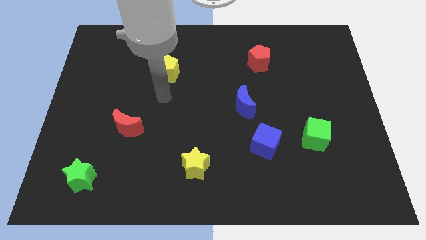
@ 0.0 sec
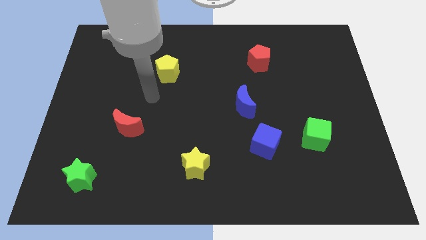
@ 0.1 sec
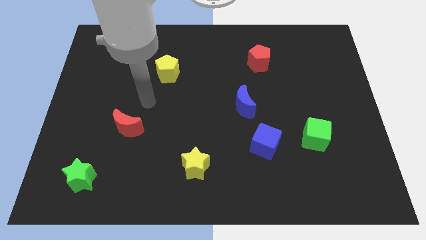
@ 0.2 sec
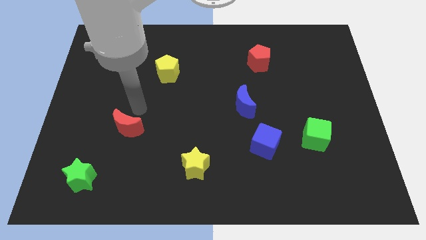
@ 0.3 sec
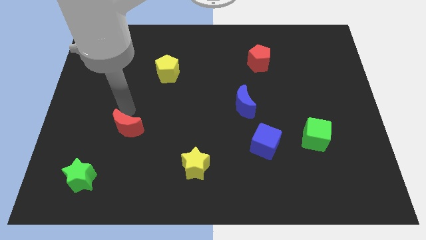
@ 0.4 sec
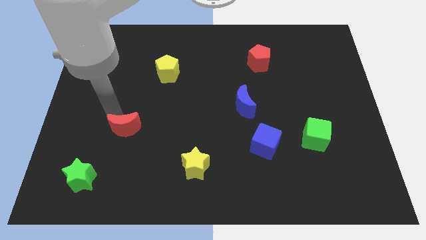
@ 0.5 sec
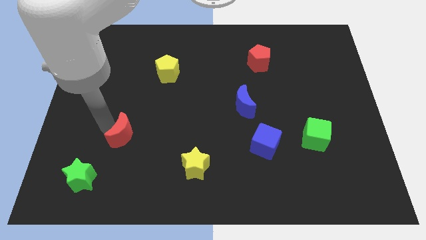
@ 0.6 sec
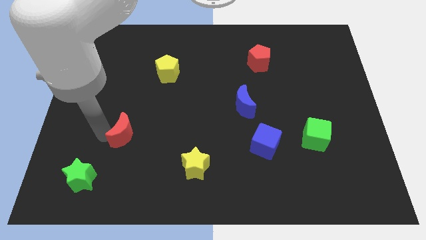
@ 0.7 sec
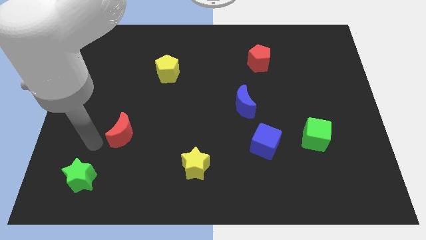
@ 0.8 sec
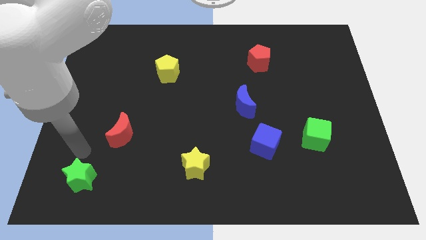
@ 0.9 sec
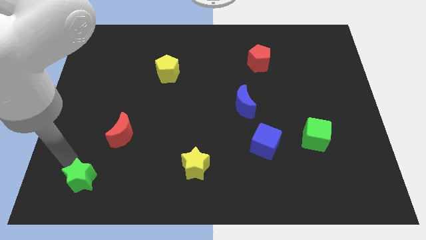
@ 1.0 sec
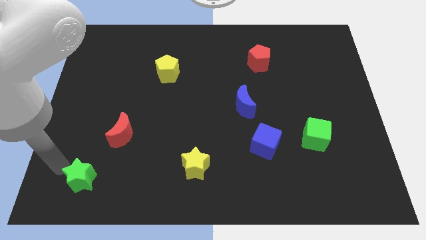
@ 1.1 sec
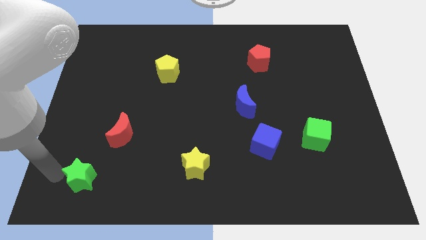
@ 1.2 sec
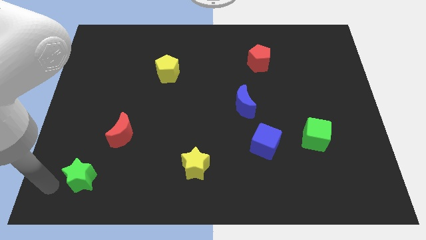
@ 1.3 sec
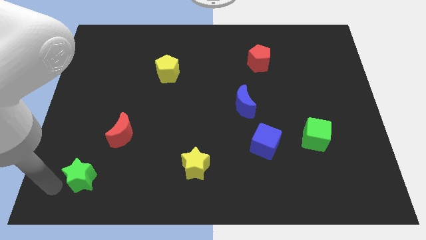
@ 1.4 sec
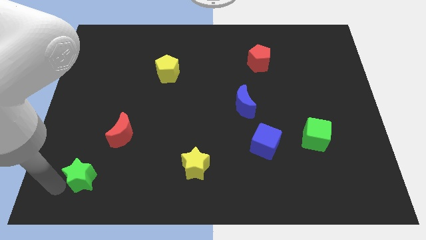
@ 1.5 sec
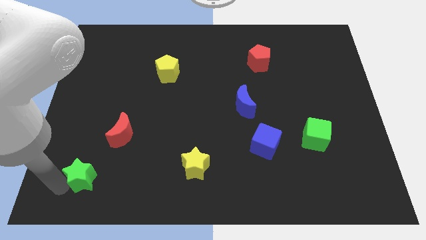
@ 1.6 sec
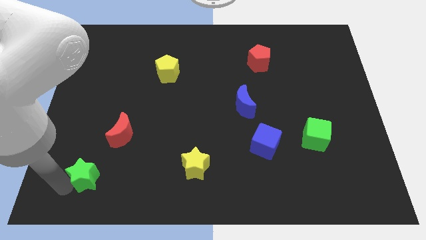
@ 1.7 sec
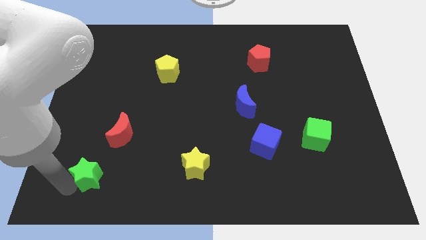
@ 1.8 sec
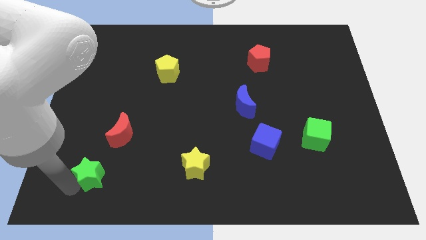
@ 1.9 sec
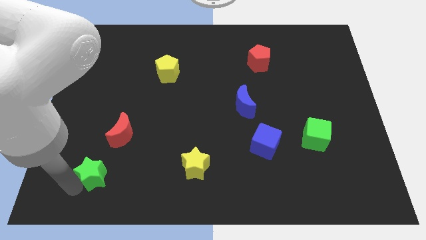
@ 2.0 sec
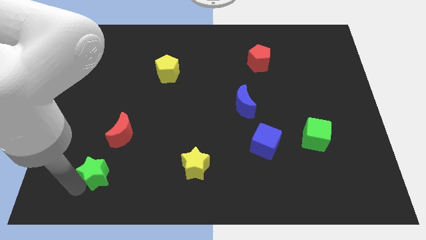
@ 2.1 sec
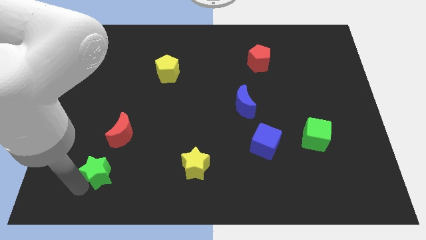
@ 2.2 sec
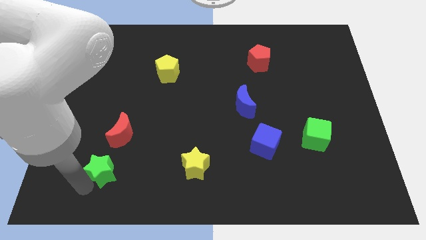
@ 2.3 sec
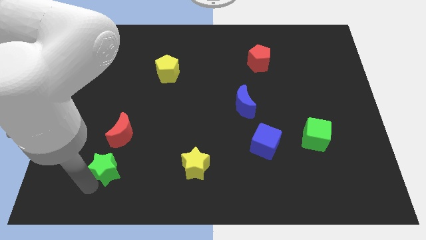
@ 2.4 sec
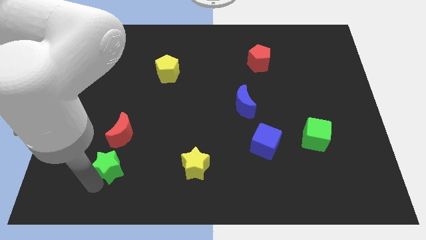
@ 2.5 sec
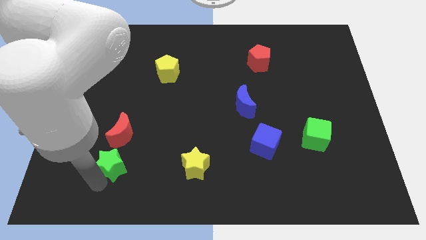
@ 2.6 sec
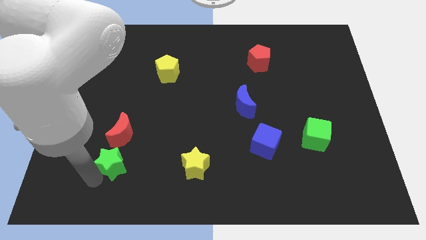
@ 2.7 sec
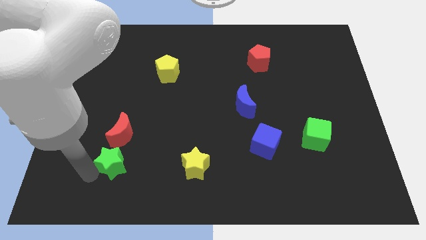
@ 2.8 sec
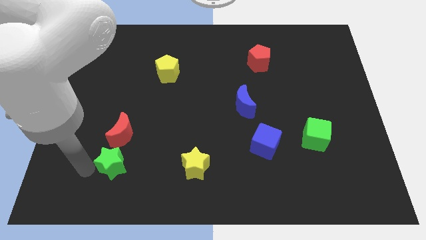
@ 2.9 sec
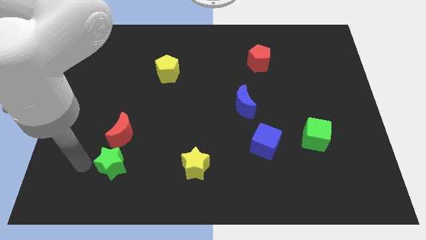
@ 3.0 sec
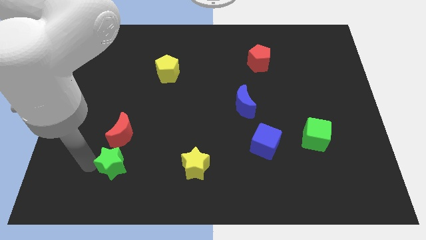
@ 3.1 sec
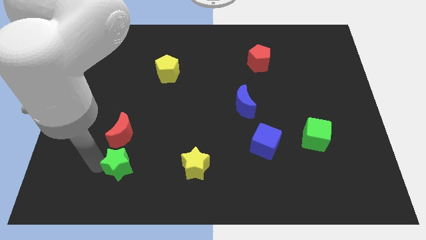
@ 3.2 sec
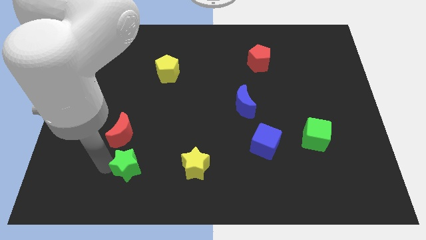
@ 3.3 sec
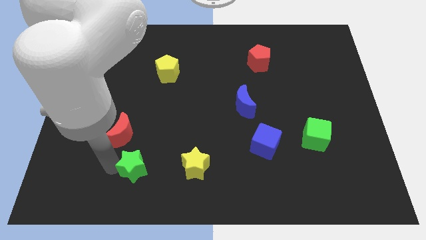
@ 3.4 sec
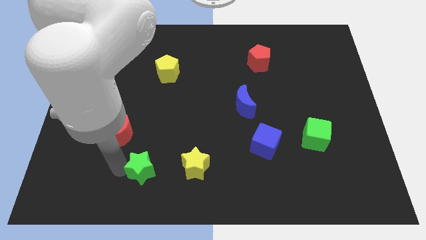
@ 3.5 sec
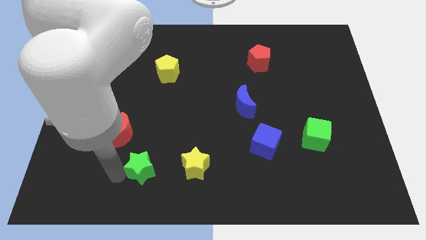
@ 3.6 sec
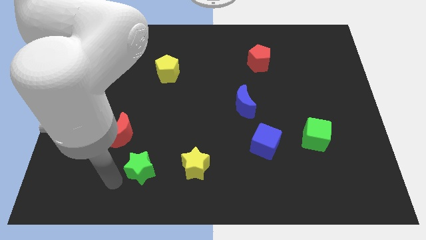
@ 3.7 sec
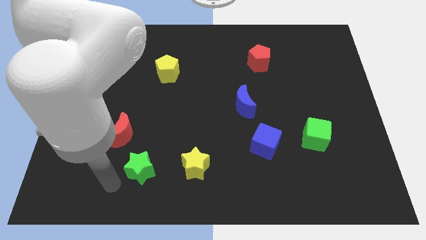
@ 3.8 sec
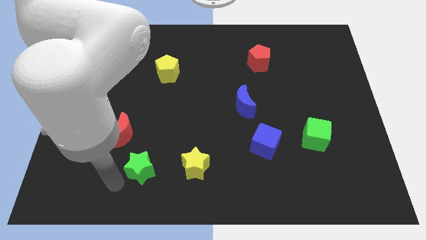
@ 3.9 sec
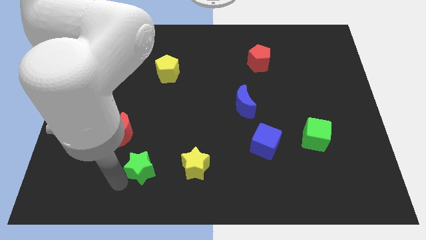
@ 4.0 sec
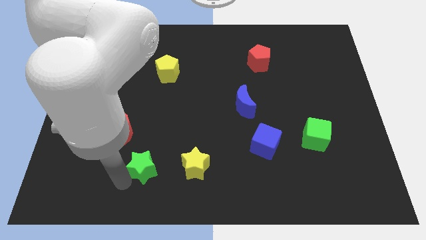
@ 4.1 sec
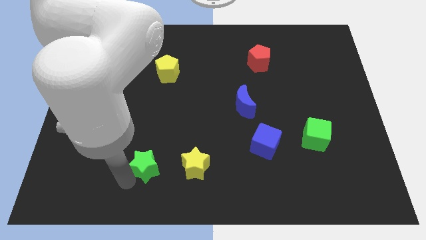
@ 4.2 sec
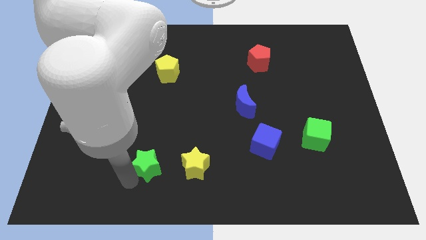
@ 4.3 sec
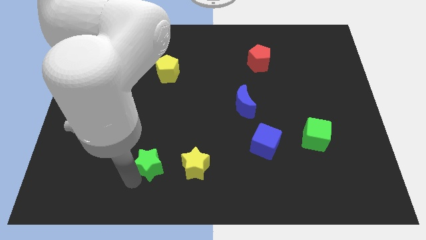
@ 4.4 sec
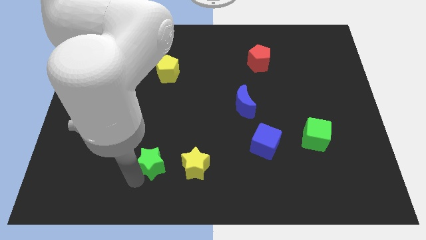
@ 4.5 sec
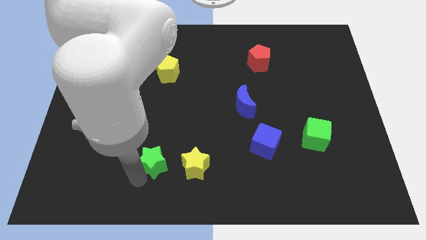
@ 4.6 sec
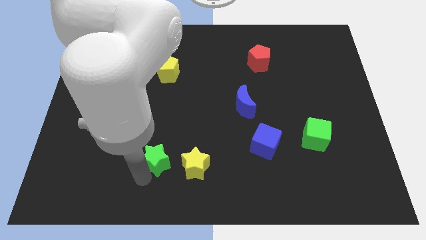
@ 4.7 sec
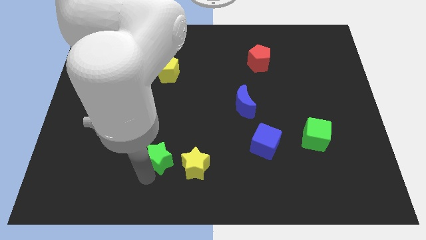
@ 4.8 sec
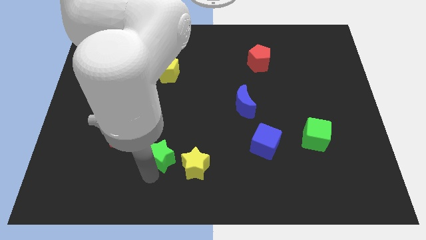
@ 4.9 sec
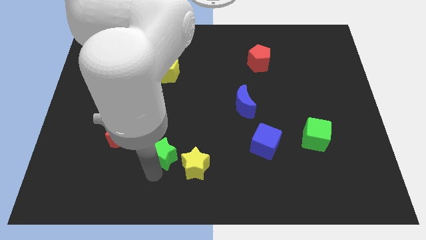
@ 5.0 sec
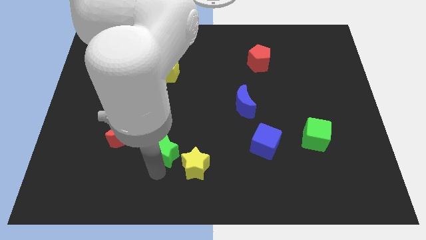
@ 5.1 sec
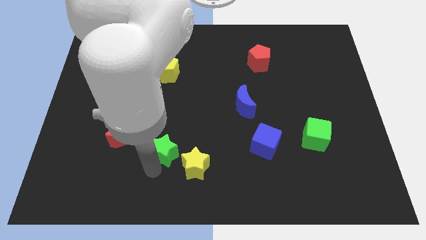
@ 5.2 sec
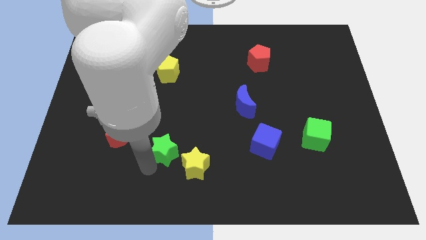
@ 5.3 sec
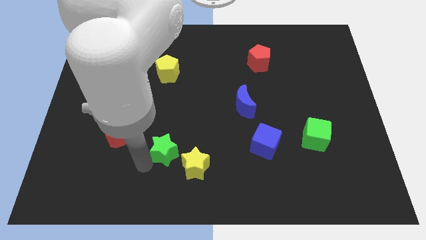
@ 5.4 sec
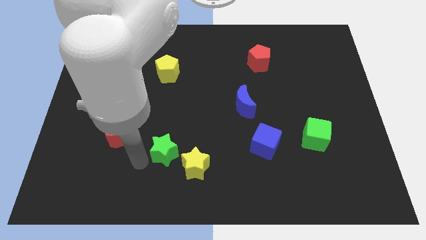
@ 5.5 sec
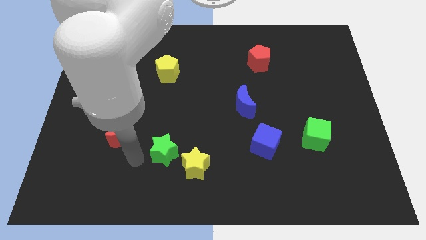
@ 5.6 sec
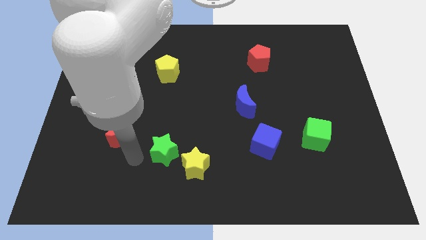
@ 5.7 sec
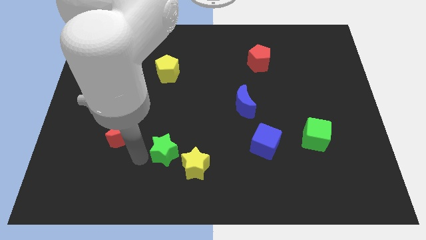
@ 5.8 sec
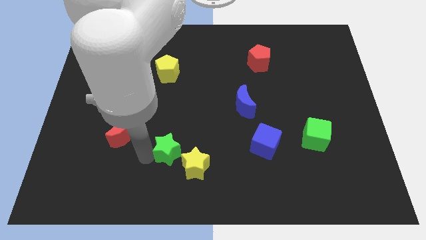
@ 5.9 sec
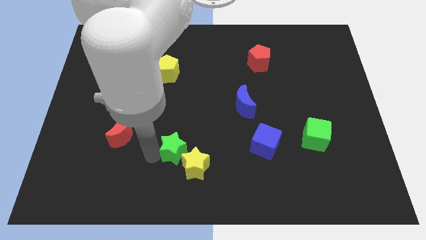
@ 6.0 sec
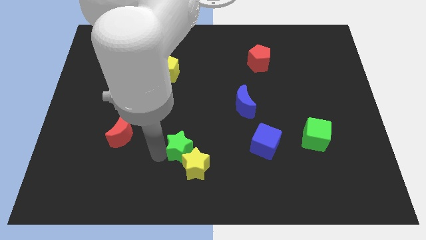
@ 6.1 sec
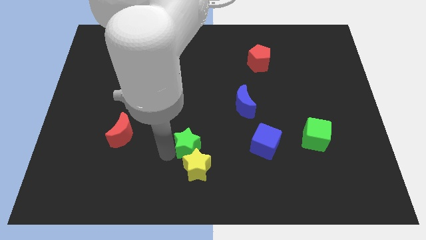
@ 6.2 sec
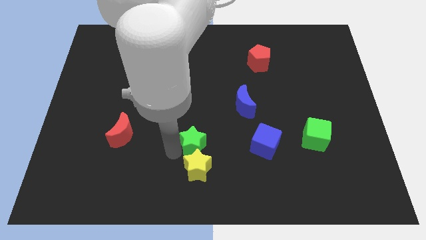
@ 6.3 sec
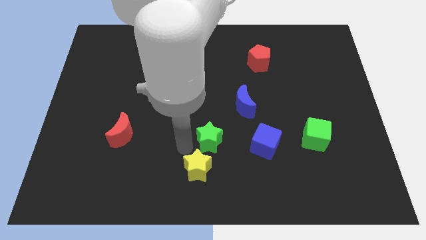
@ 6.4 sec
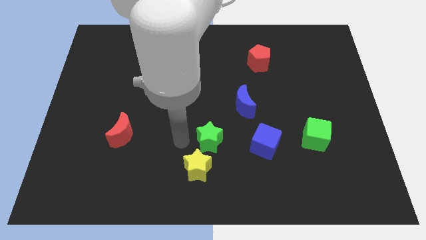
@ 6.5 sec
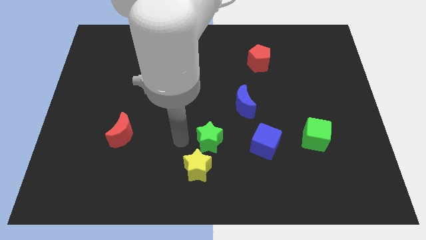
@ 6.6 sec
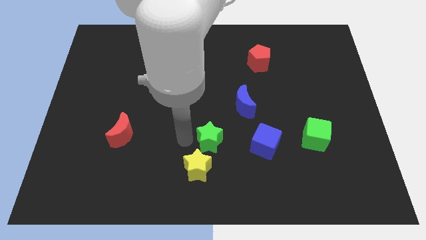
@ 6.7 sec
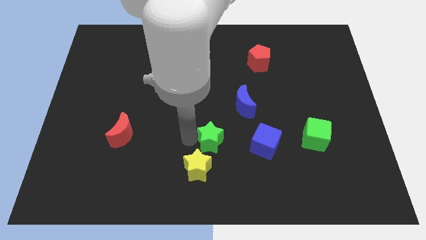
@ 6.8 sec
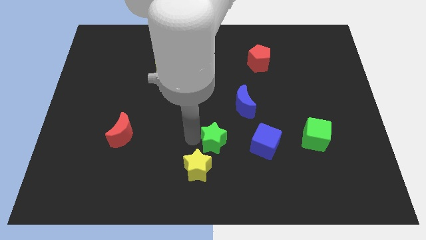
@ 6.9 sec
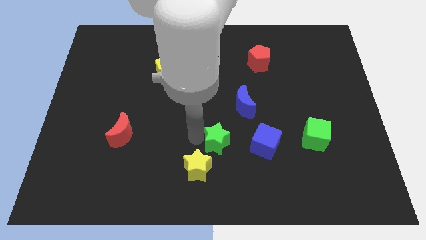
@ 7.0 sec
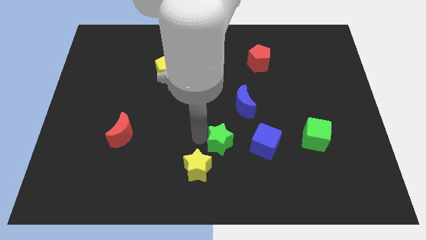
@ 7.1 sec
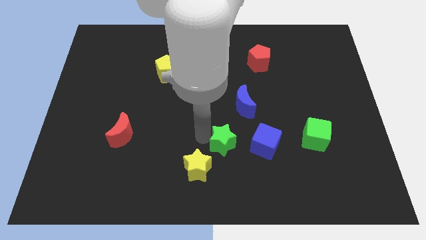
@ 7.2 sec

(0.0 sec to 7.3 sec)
push the green star to the bottom of the blue moon
